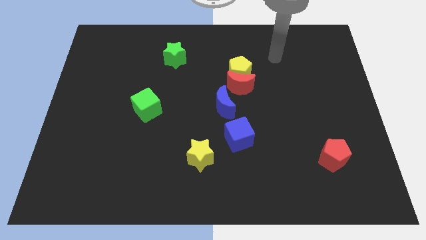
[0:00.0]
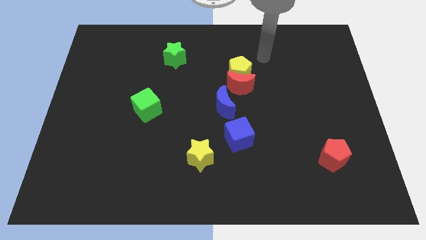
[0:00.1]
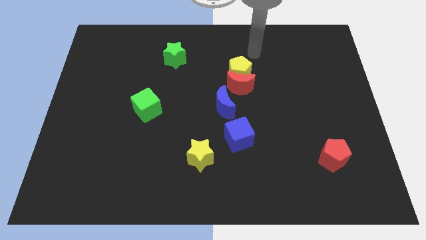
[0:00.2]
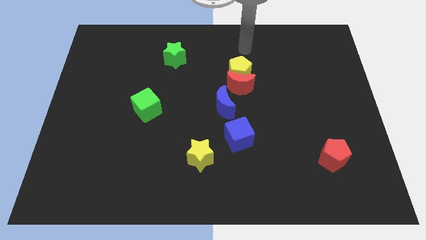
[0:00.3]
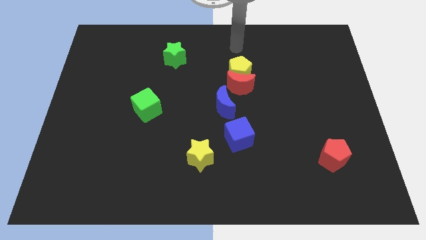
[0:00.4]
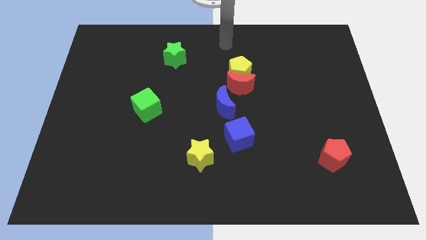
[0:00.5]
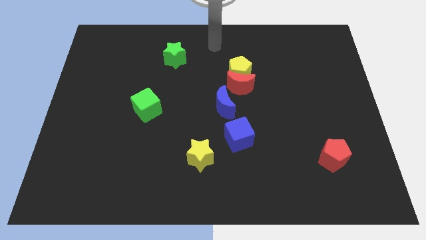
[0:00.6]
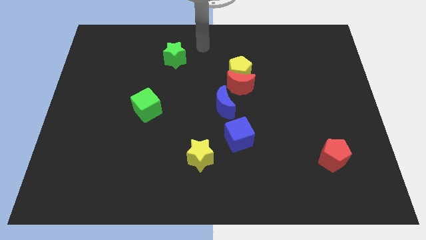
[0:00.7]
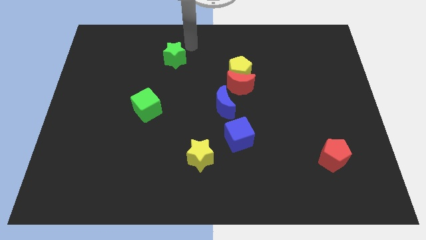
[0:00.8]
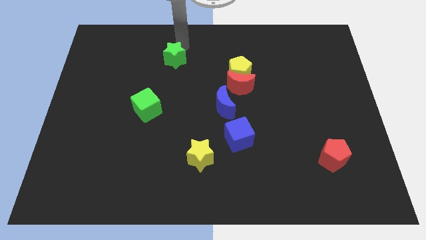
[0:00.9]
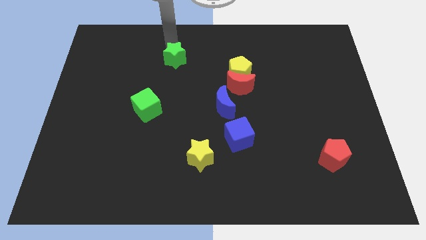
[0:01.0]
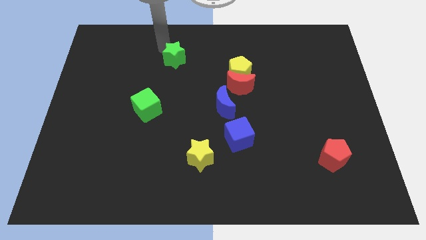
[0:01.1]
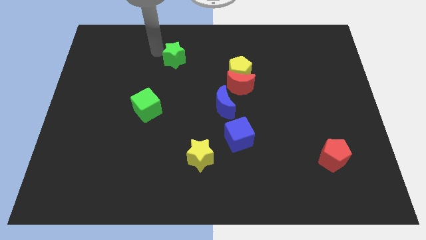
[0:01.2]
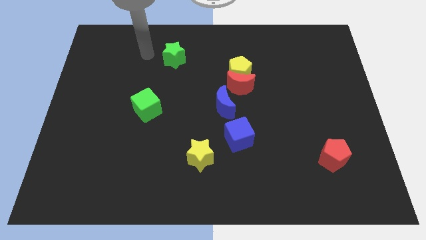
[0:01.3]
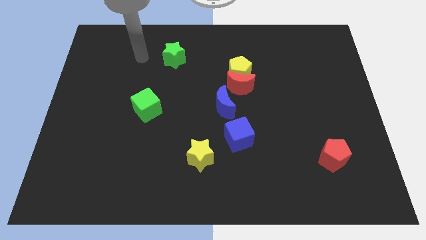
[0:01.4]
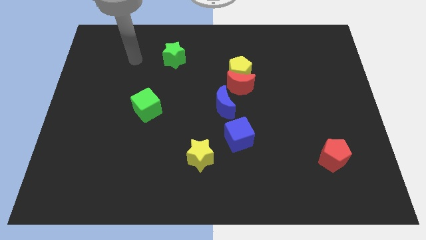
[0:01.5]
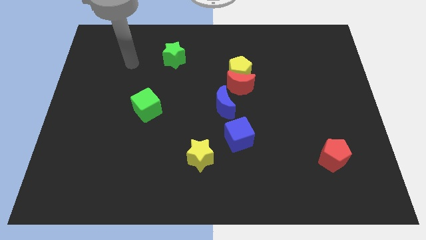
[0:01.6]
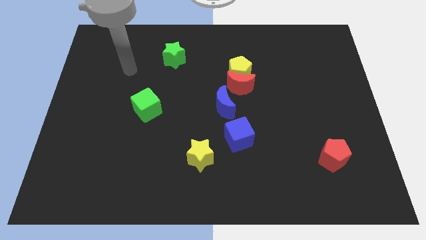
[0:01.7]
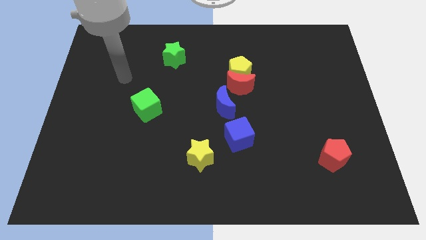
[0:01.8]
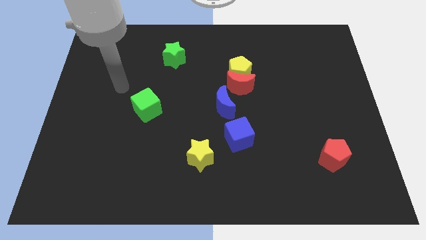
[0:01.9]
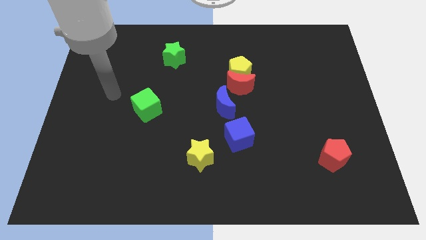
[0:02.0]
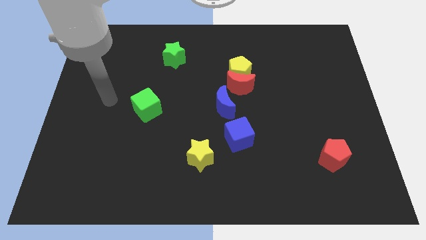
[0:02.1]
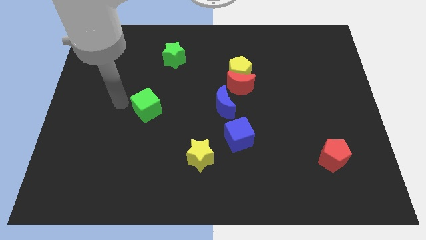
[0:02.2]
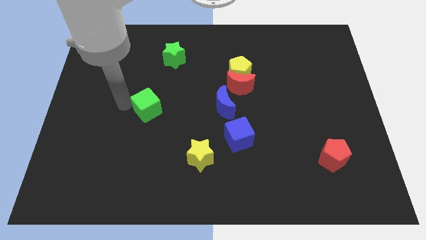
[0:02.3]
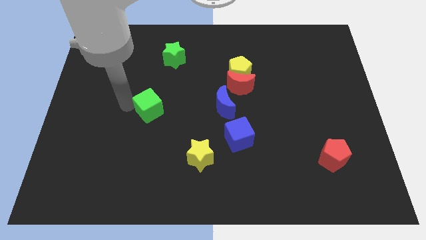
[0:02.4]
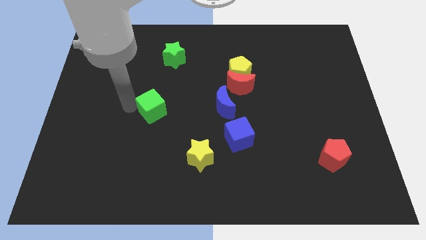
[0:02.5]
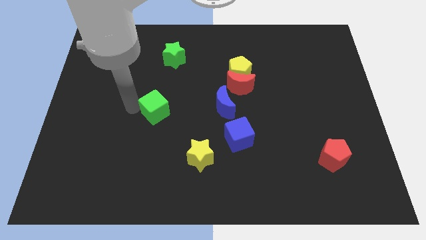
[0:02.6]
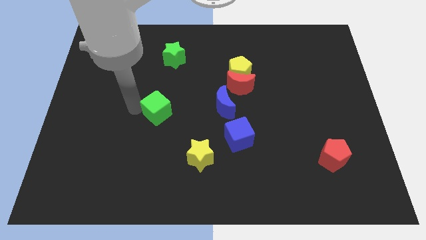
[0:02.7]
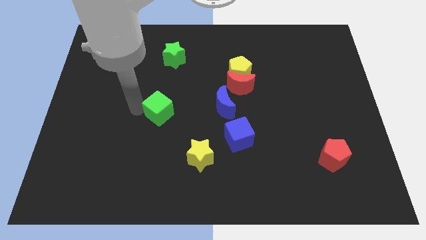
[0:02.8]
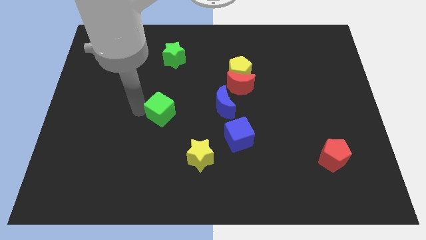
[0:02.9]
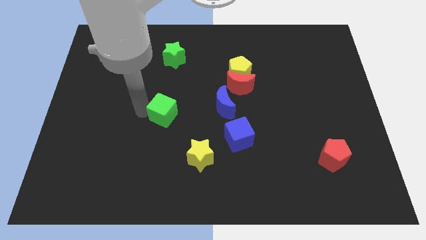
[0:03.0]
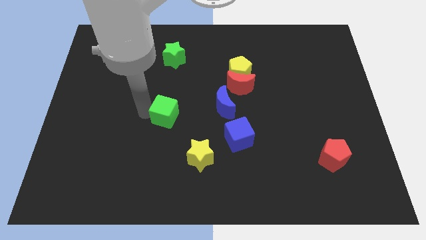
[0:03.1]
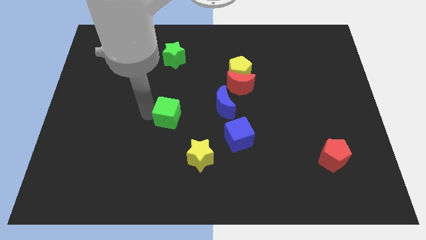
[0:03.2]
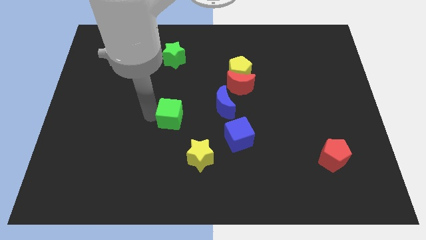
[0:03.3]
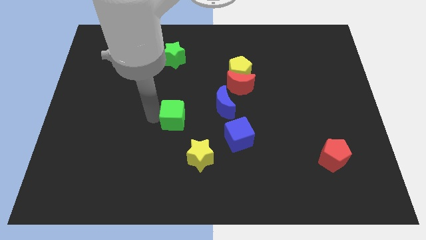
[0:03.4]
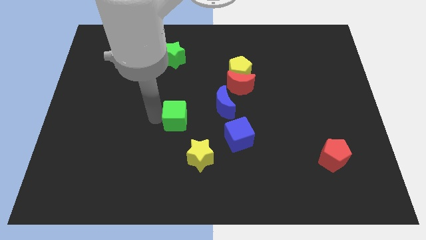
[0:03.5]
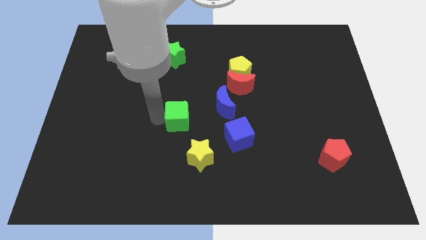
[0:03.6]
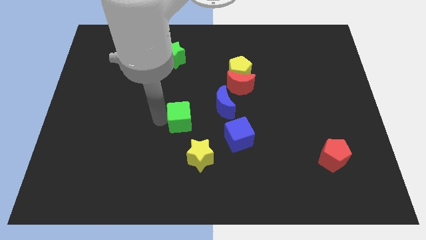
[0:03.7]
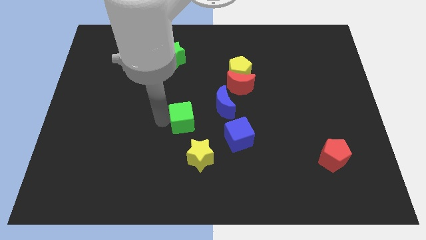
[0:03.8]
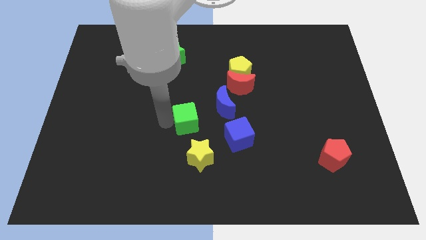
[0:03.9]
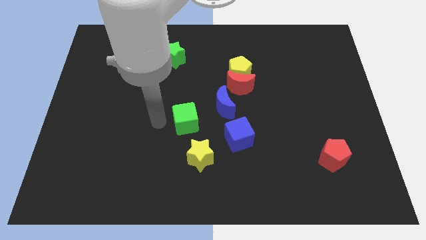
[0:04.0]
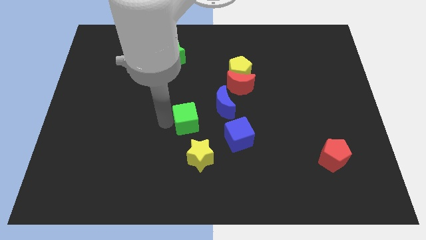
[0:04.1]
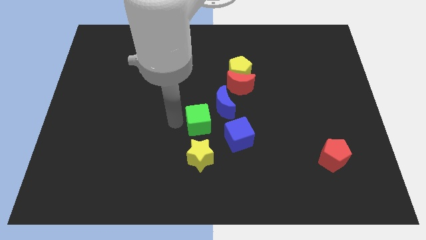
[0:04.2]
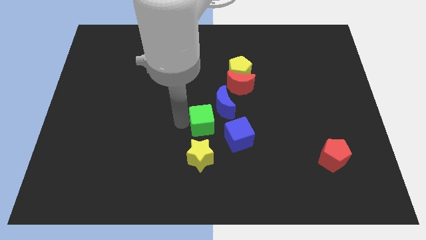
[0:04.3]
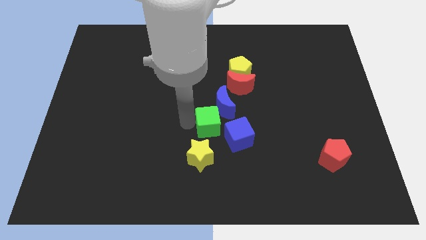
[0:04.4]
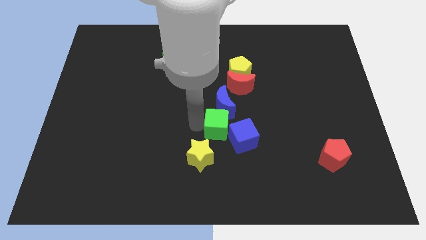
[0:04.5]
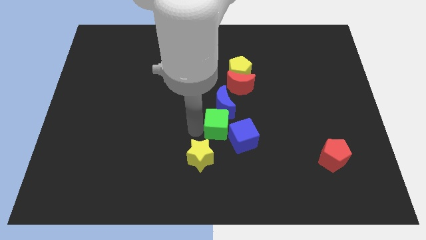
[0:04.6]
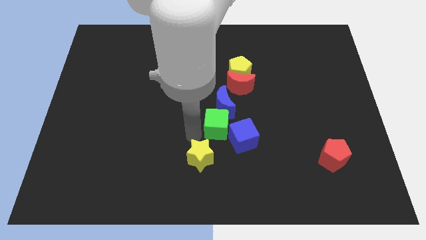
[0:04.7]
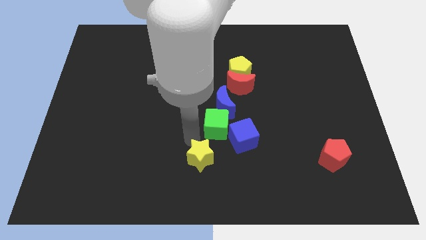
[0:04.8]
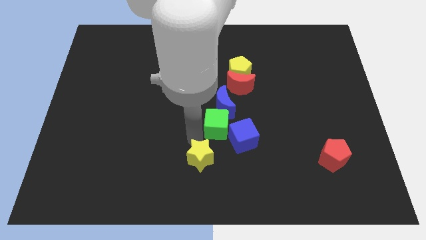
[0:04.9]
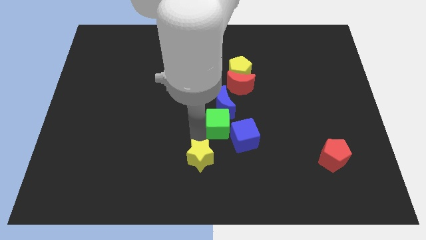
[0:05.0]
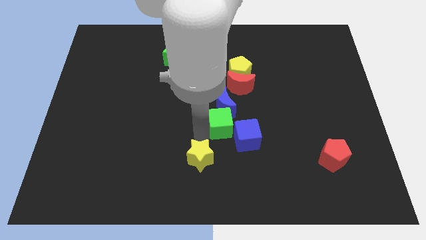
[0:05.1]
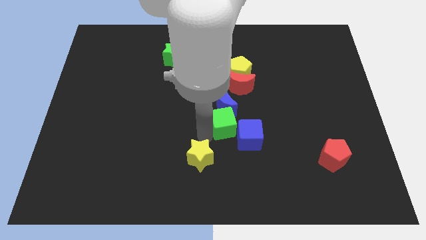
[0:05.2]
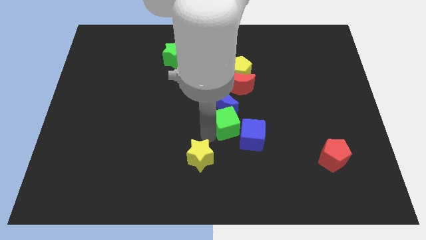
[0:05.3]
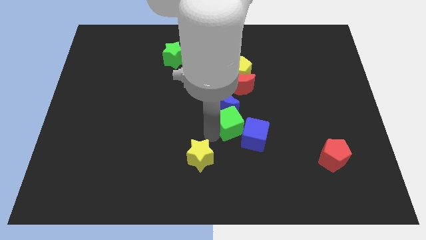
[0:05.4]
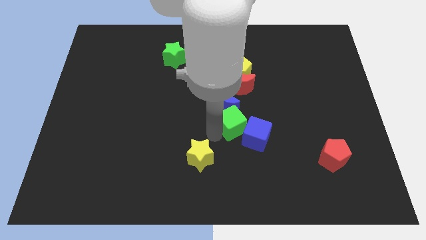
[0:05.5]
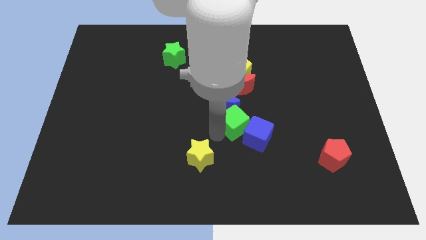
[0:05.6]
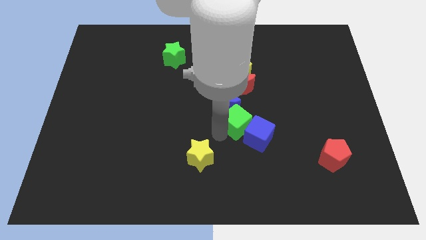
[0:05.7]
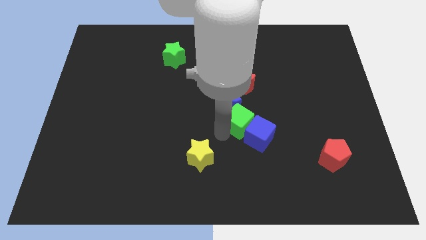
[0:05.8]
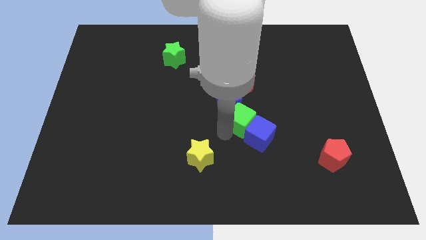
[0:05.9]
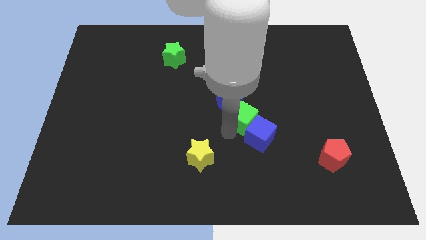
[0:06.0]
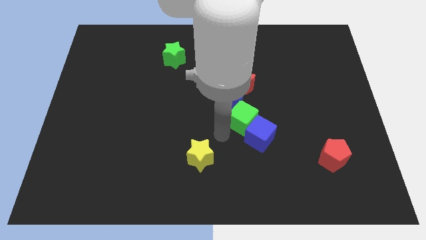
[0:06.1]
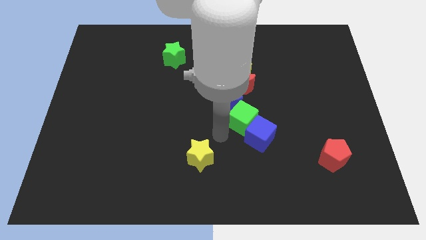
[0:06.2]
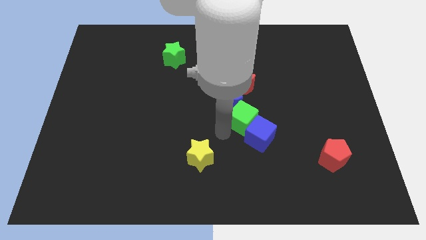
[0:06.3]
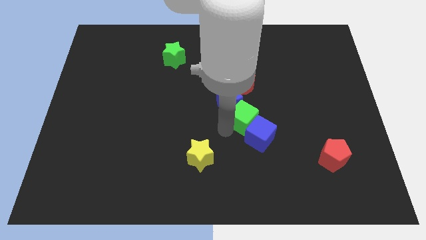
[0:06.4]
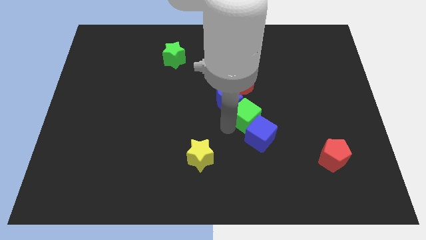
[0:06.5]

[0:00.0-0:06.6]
move the green cube to the right side of the blue moon

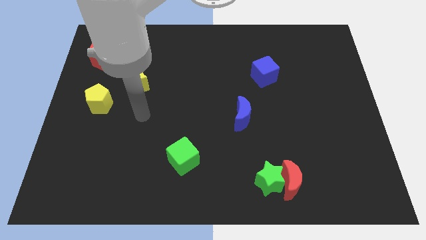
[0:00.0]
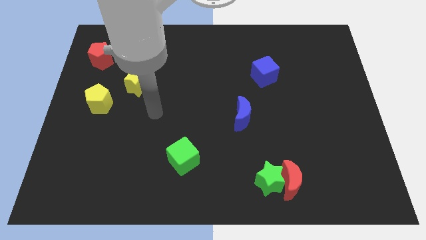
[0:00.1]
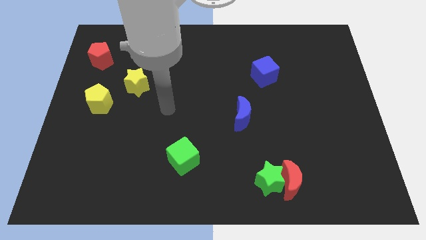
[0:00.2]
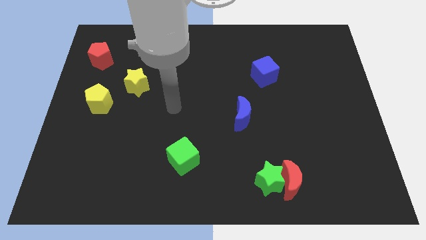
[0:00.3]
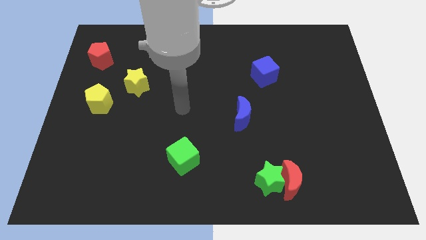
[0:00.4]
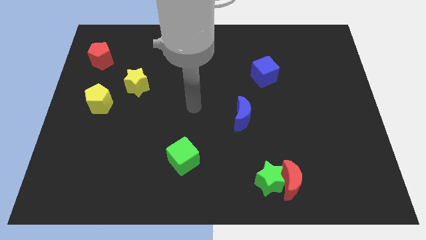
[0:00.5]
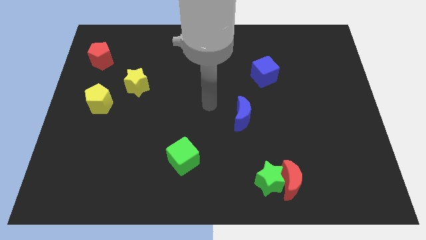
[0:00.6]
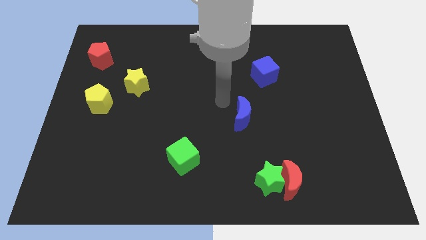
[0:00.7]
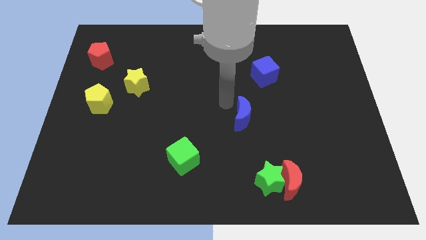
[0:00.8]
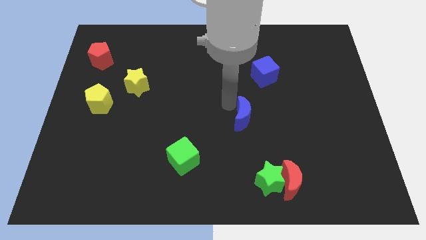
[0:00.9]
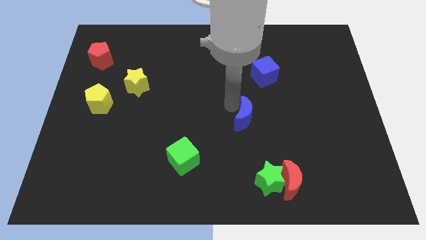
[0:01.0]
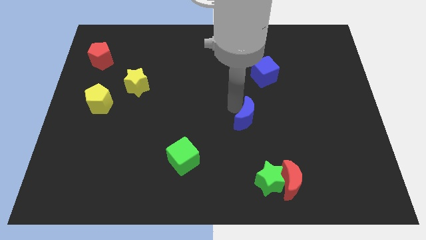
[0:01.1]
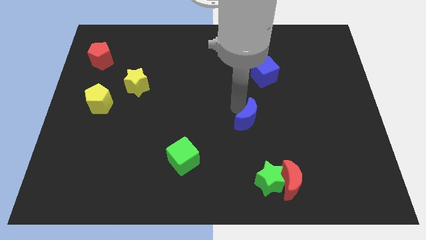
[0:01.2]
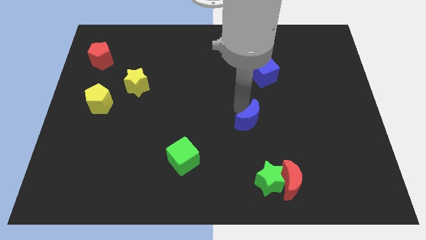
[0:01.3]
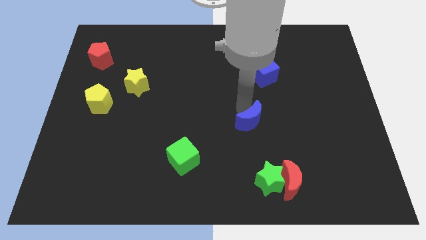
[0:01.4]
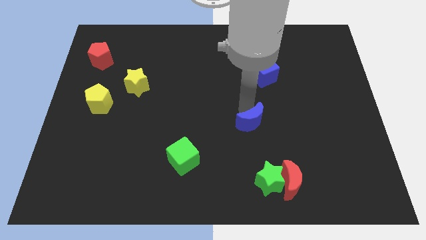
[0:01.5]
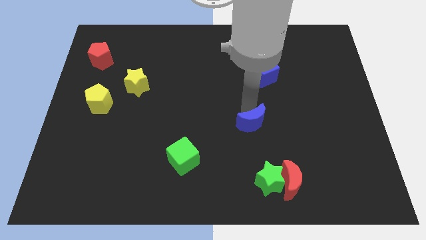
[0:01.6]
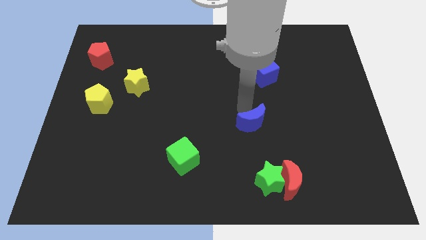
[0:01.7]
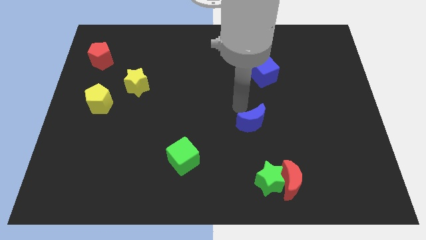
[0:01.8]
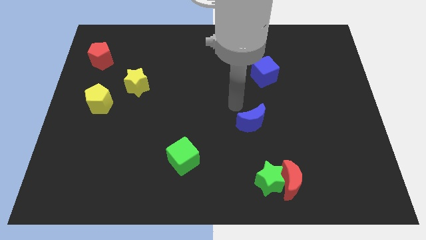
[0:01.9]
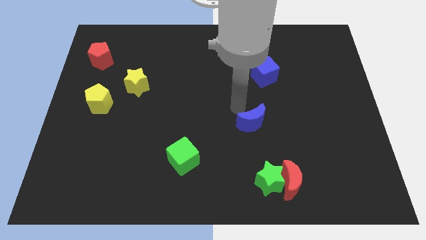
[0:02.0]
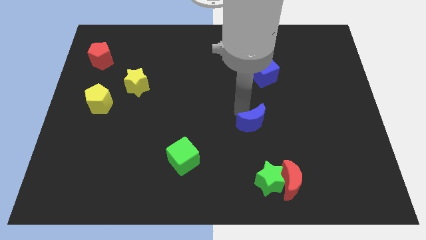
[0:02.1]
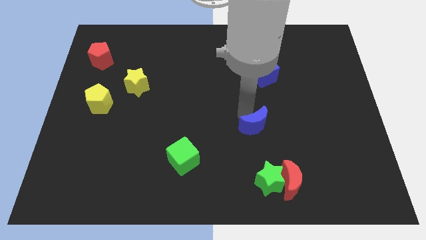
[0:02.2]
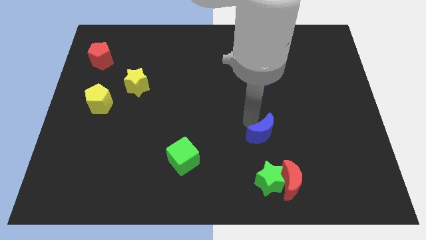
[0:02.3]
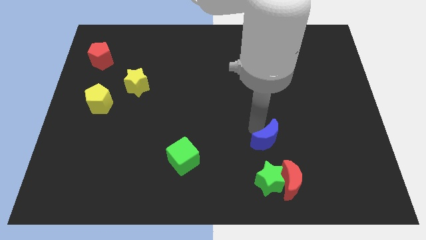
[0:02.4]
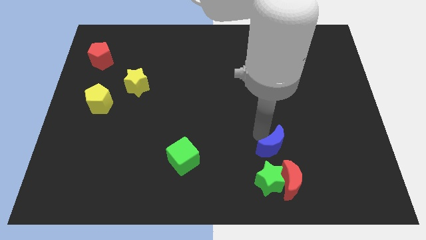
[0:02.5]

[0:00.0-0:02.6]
slide the blue moon to the top right of the green star
